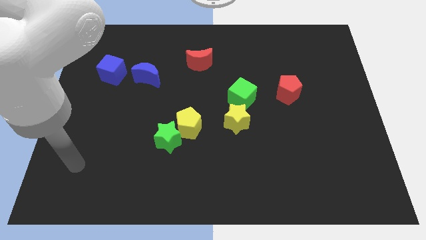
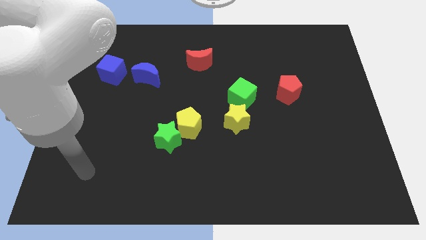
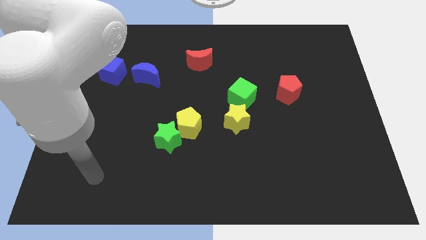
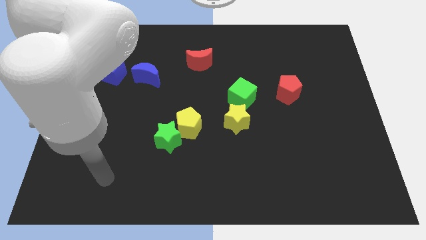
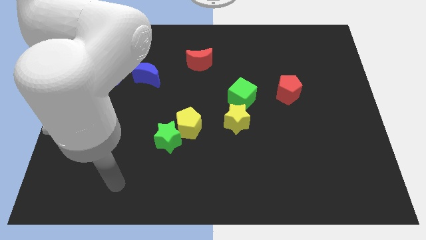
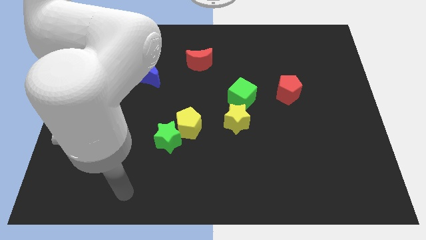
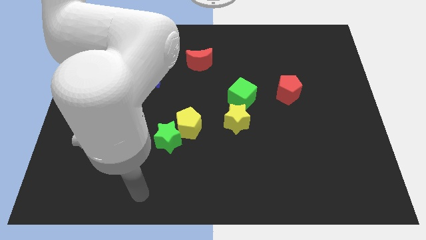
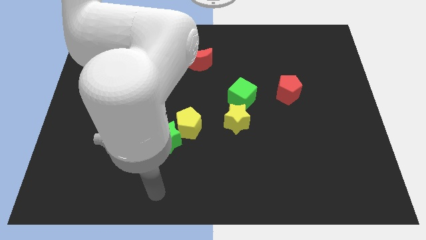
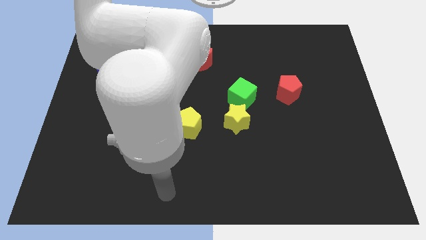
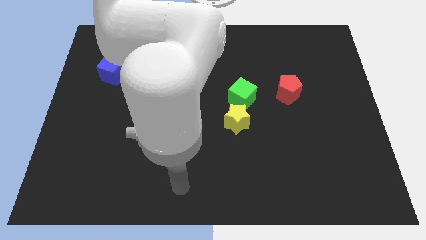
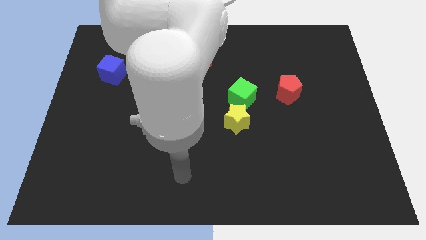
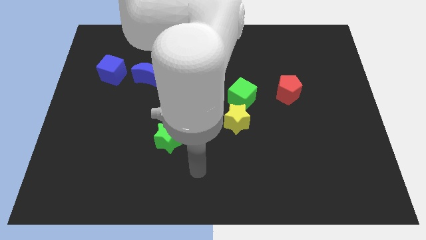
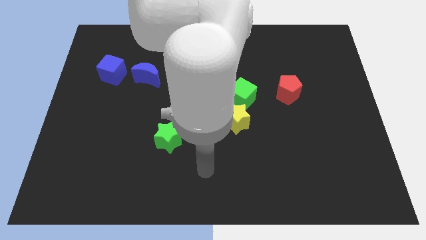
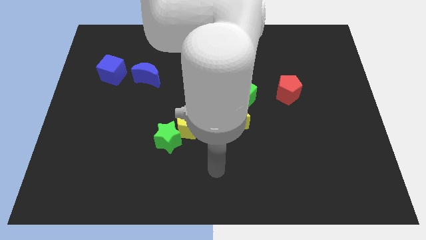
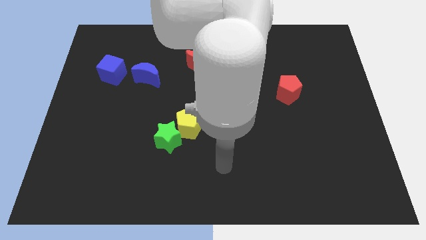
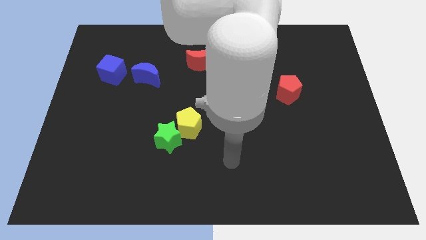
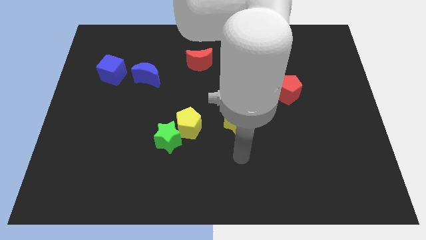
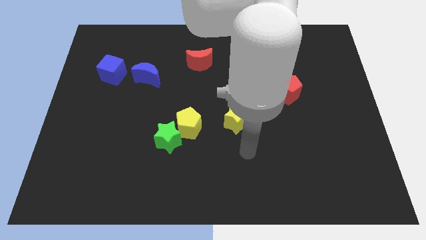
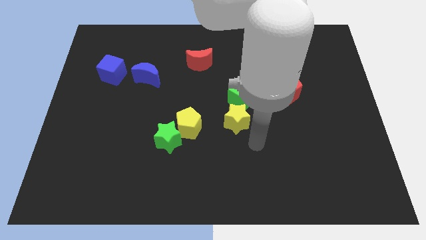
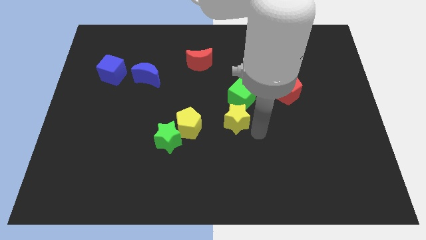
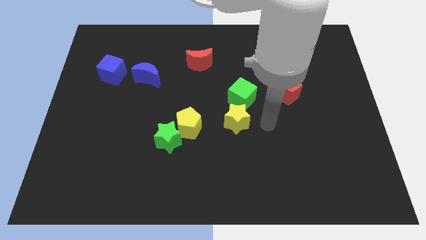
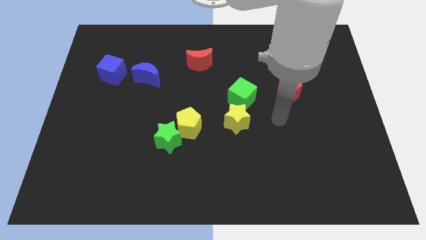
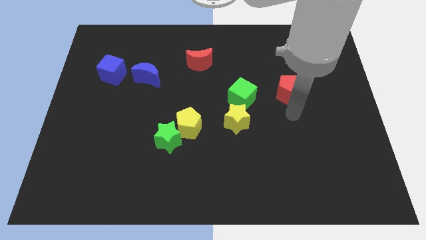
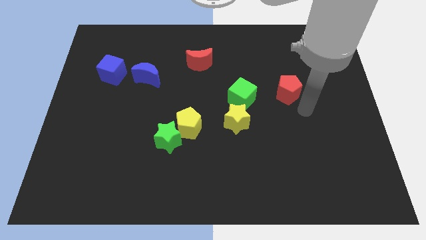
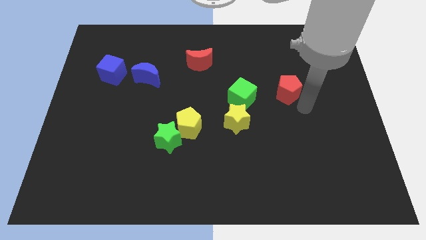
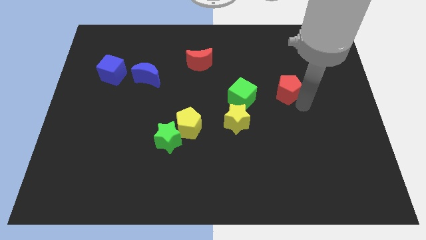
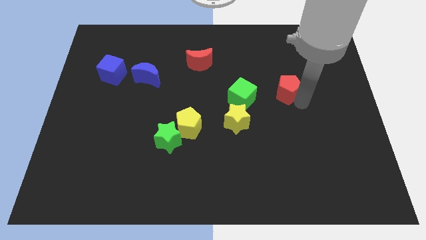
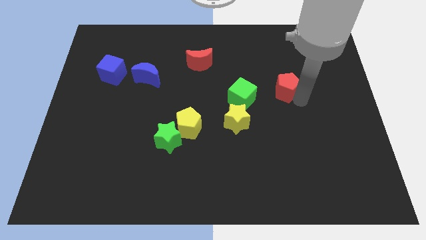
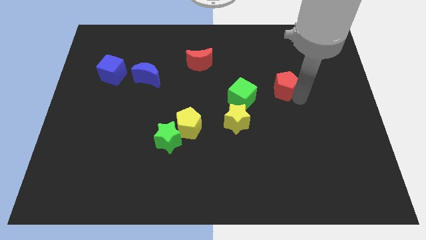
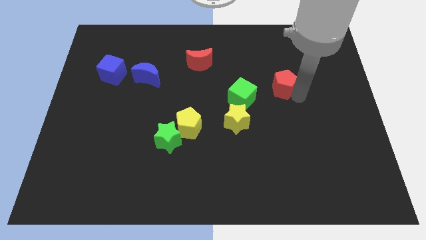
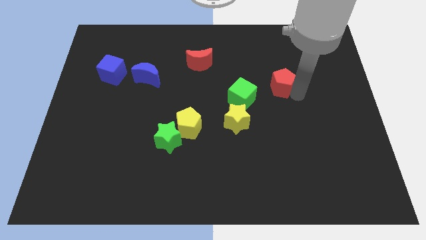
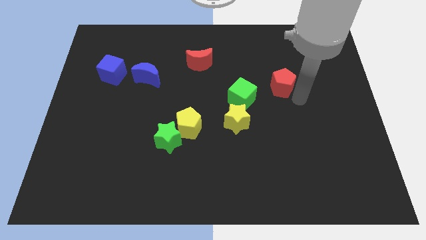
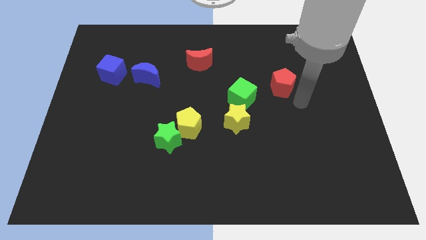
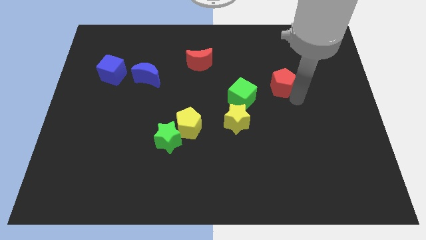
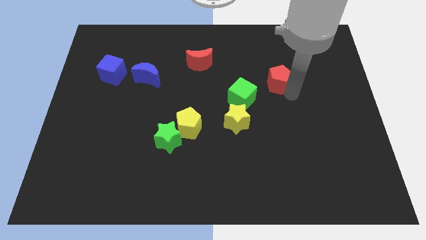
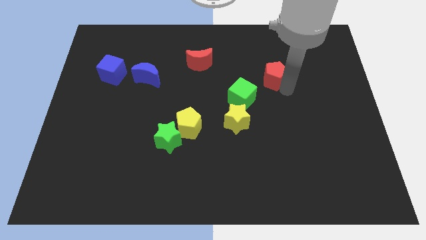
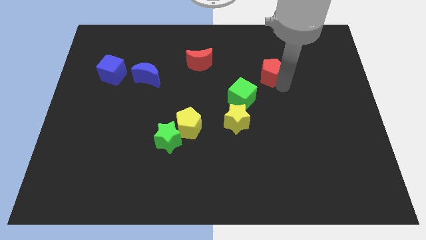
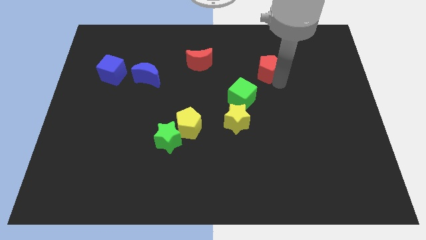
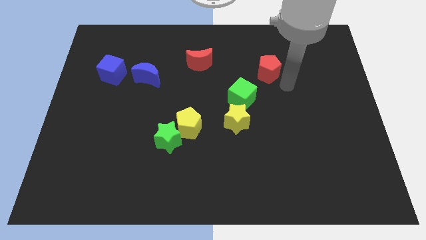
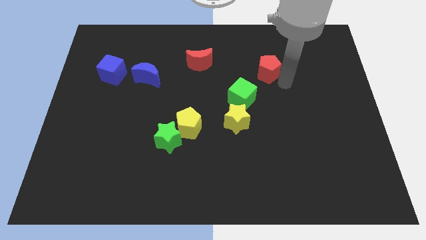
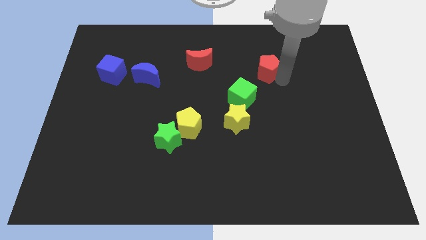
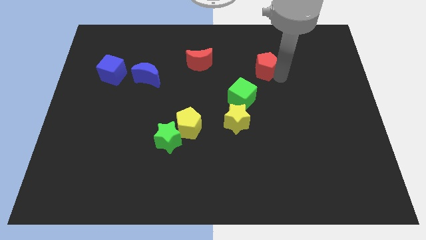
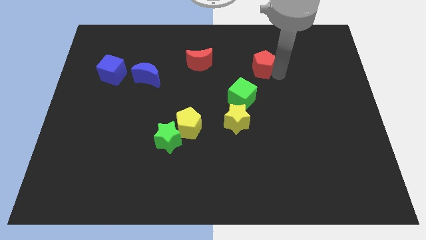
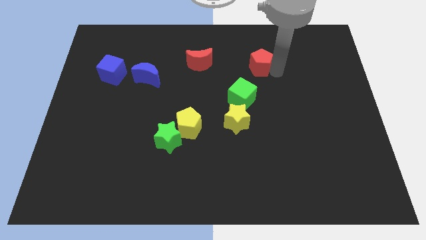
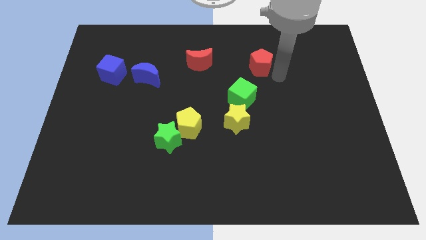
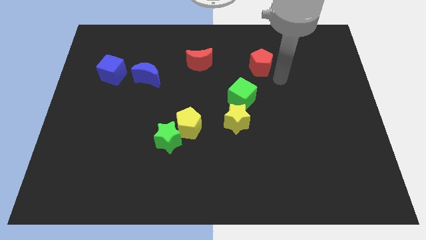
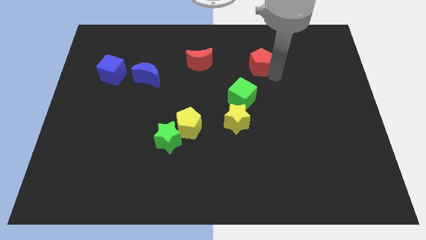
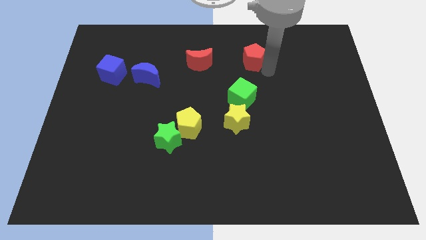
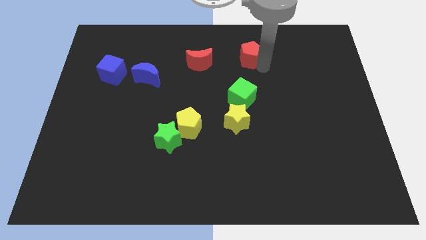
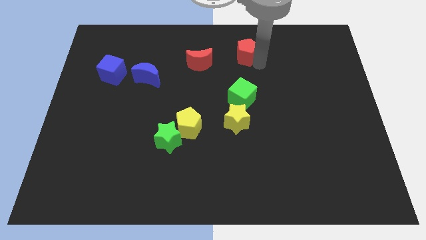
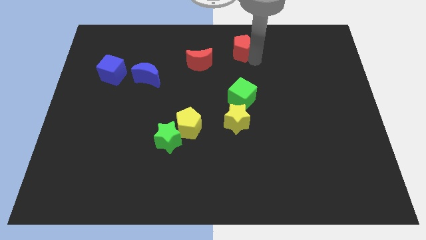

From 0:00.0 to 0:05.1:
push the red pentagon to the top

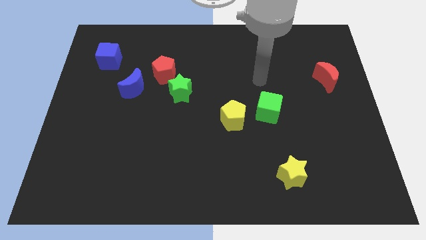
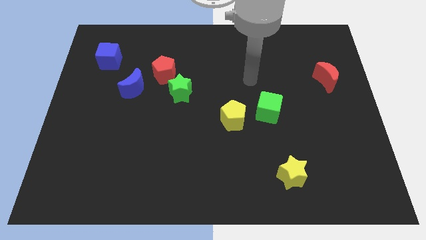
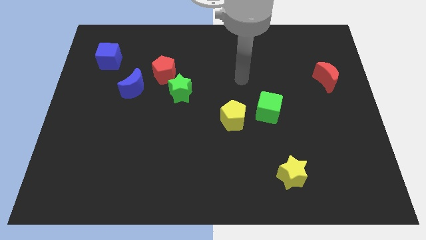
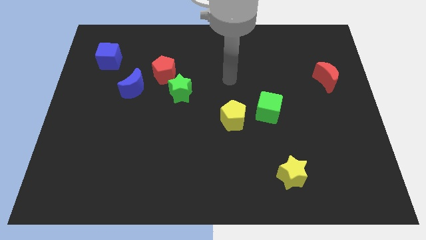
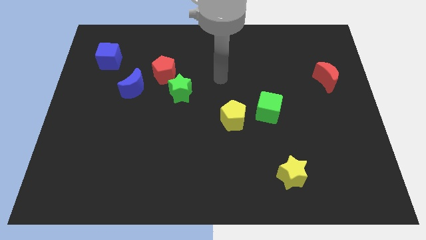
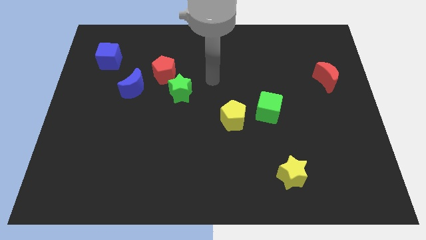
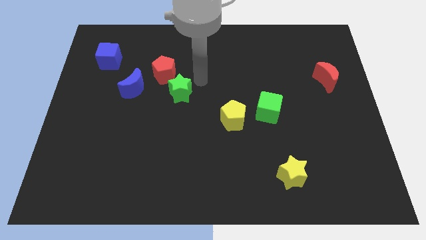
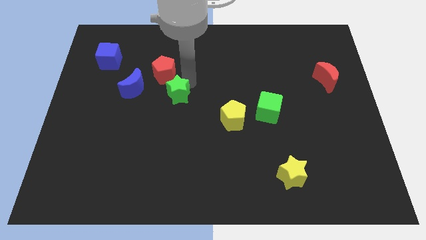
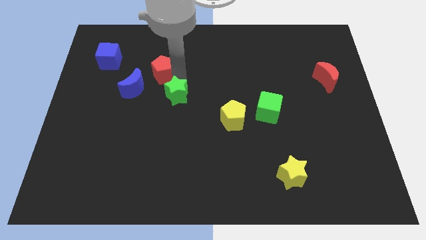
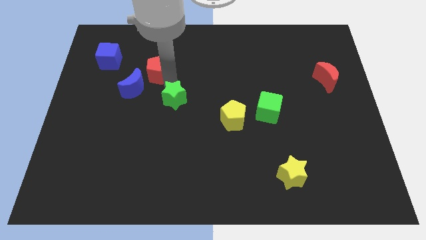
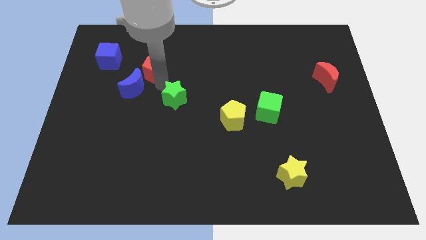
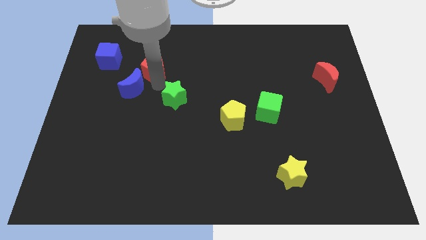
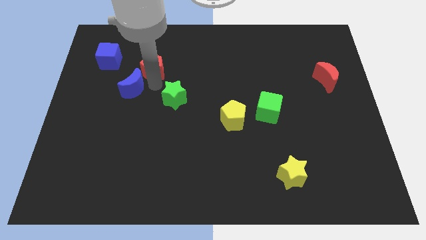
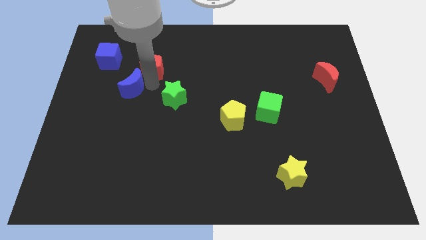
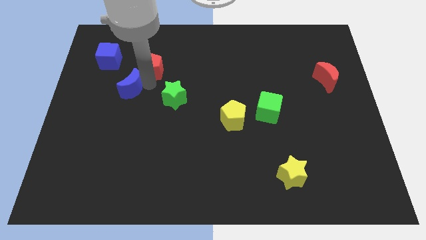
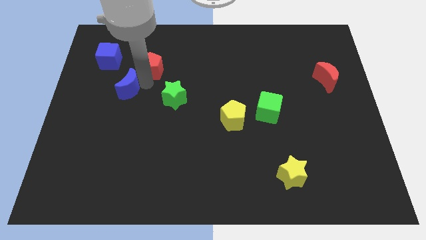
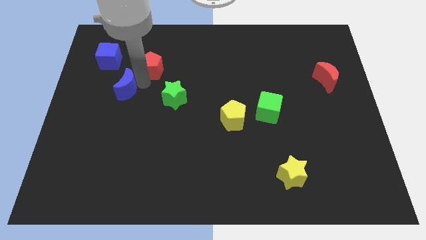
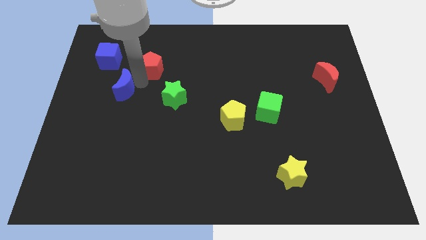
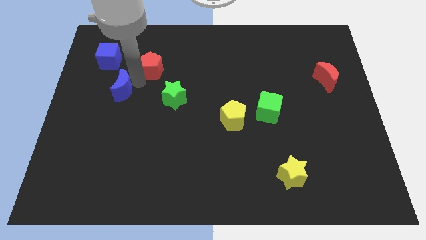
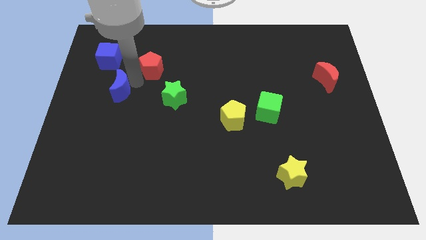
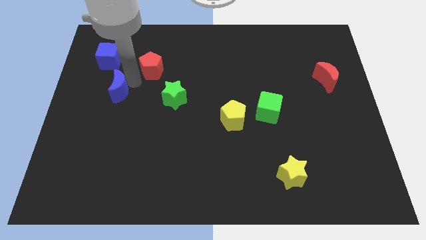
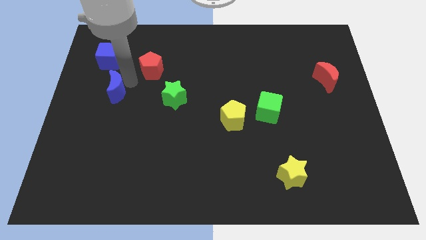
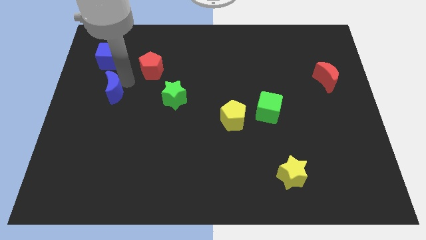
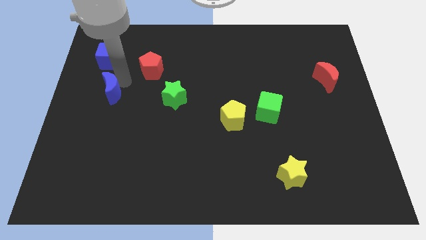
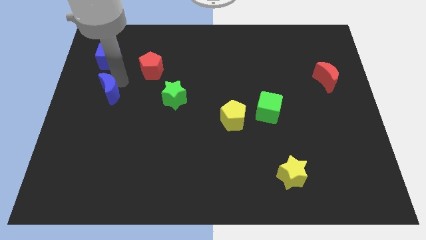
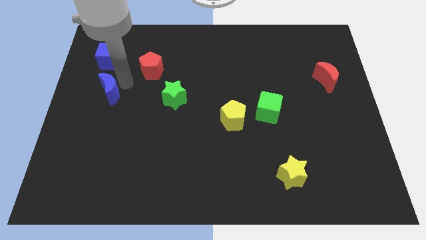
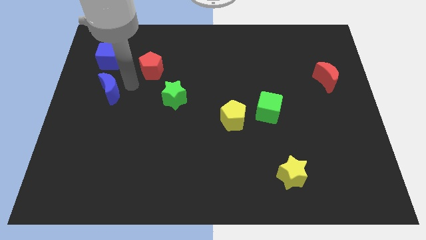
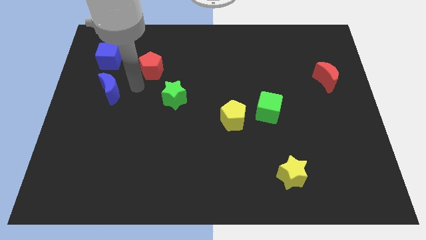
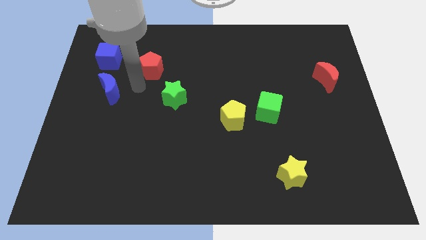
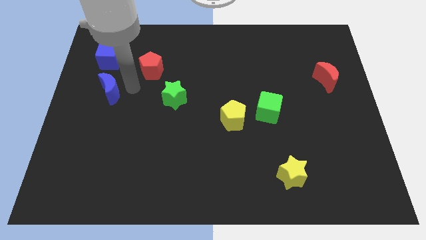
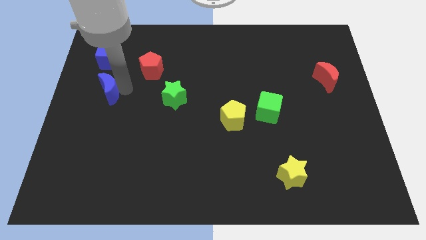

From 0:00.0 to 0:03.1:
move the blue moon to the left side of the board
